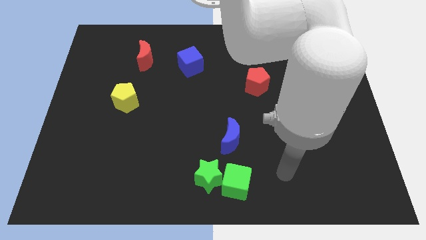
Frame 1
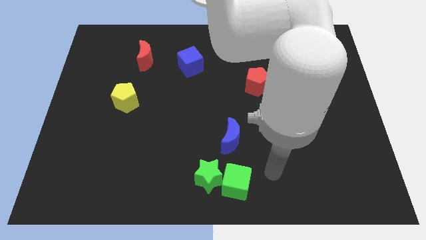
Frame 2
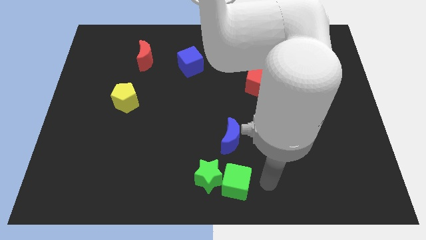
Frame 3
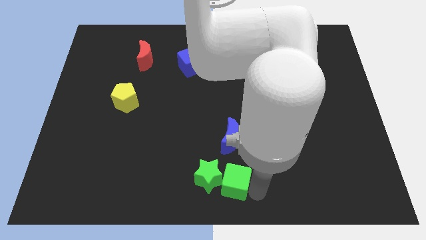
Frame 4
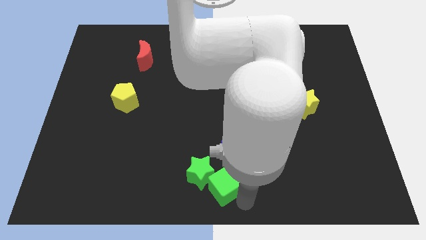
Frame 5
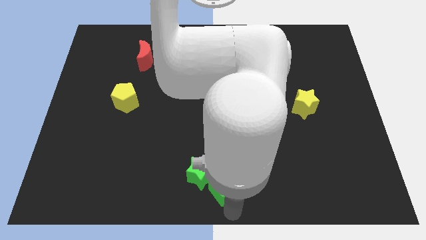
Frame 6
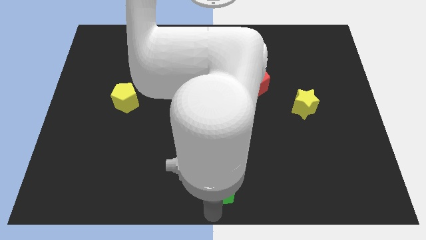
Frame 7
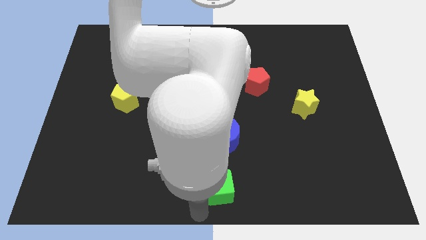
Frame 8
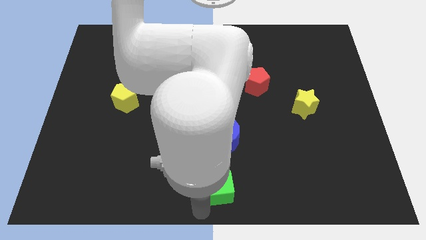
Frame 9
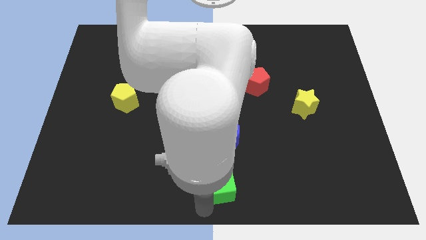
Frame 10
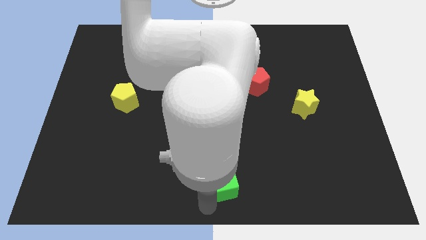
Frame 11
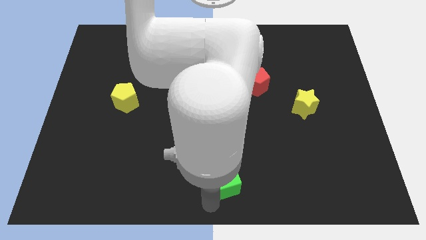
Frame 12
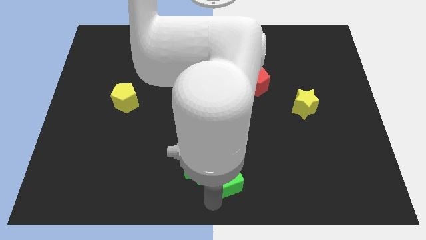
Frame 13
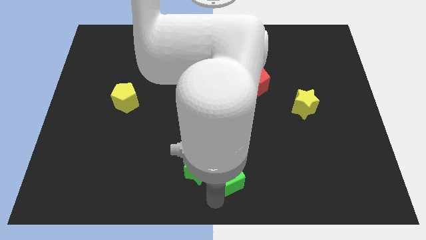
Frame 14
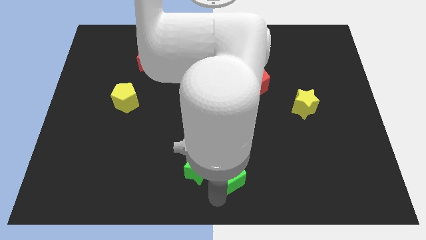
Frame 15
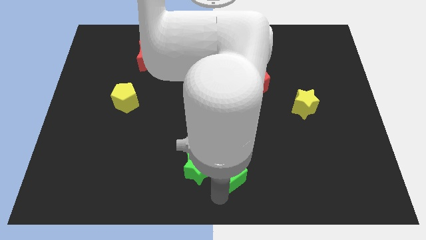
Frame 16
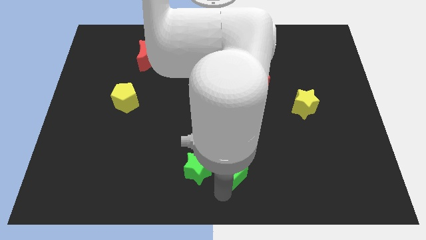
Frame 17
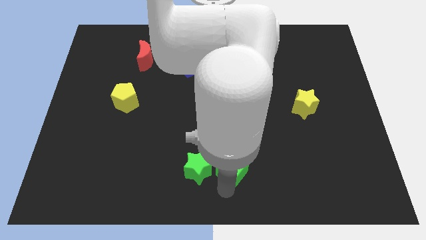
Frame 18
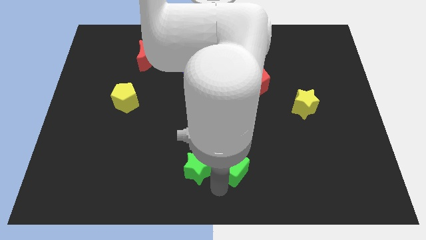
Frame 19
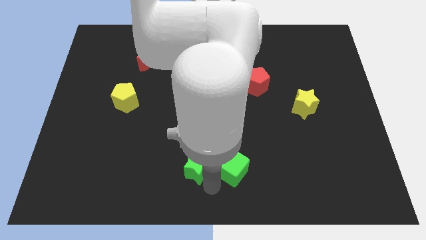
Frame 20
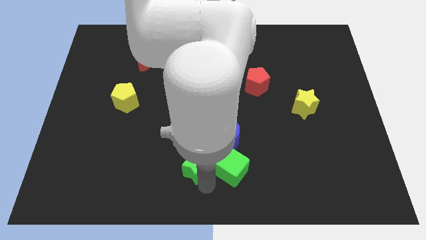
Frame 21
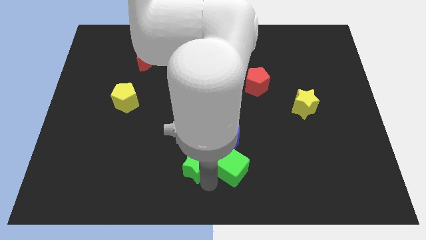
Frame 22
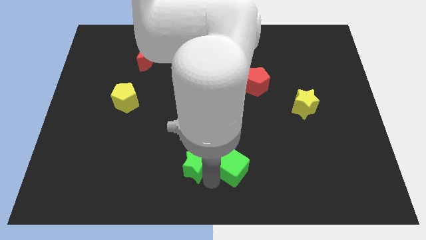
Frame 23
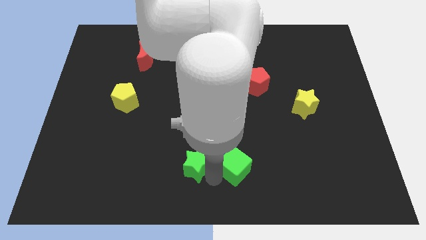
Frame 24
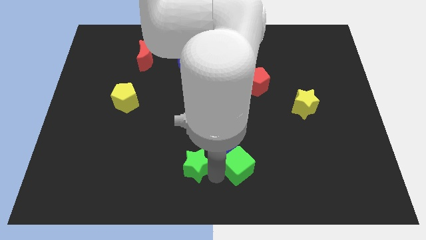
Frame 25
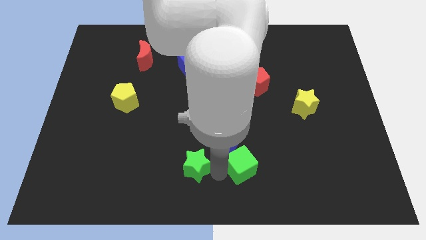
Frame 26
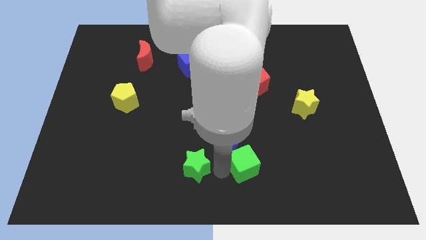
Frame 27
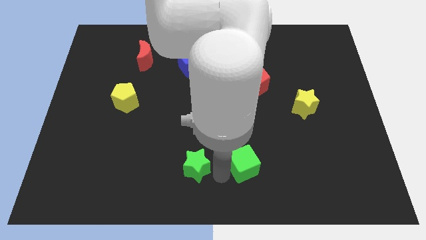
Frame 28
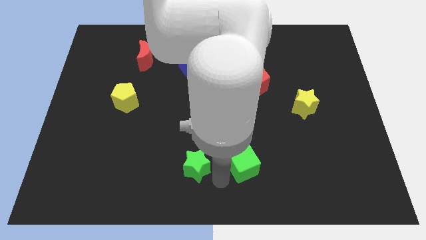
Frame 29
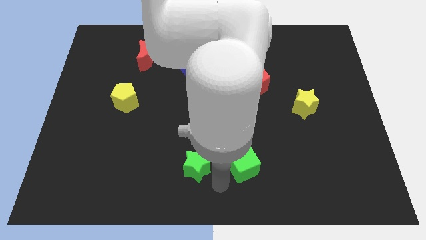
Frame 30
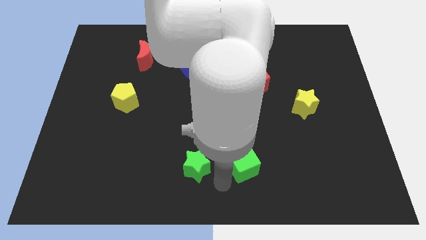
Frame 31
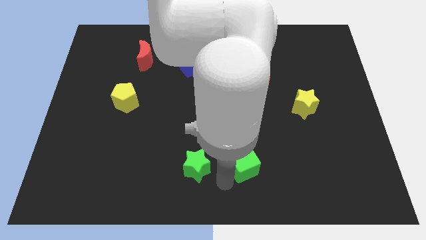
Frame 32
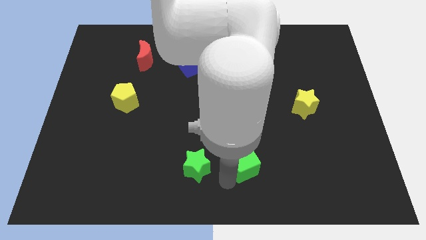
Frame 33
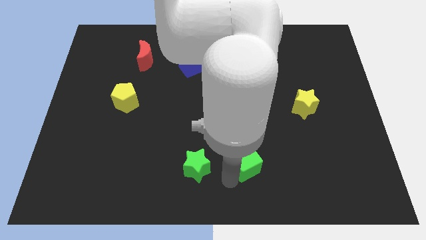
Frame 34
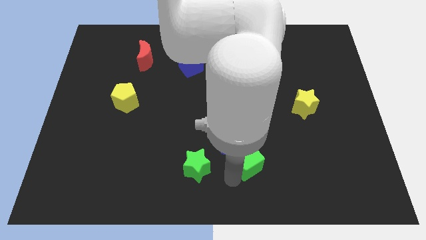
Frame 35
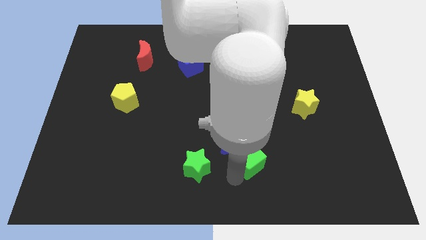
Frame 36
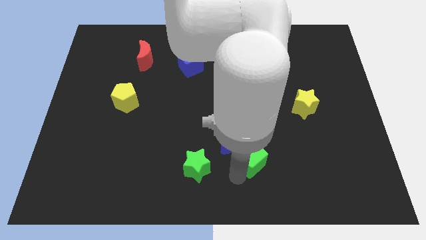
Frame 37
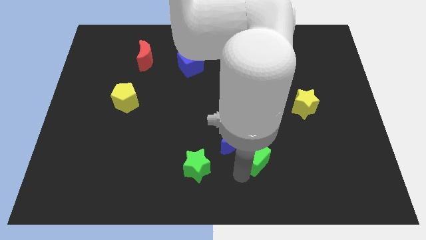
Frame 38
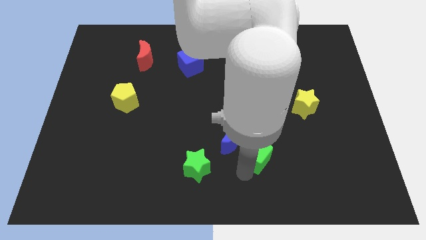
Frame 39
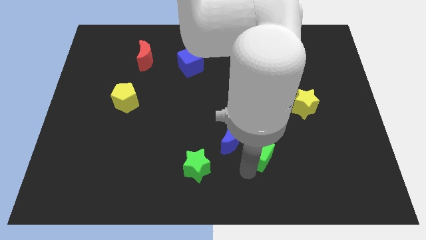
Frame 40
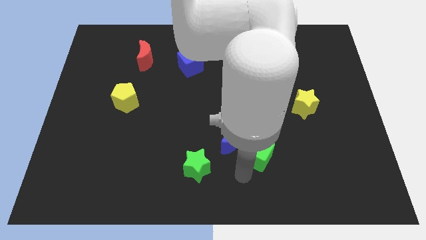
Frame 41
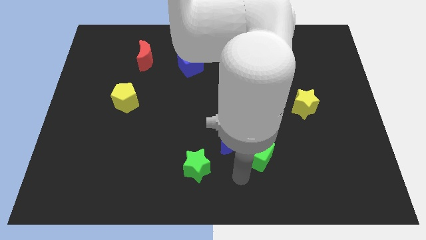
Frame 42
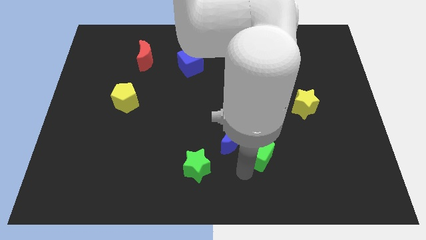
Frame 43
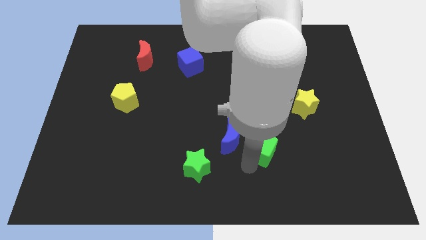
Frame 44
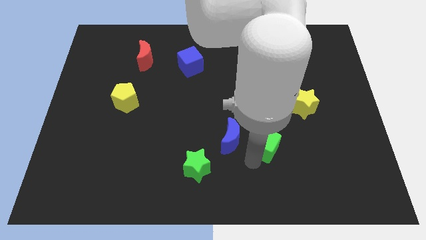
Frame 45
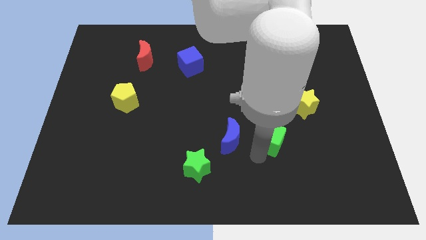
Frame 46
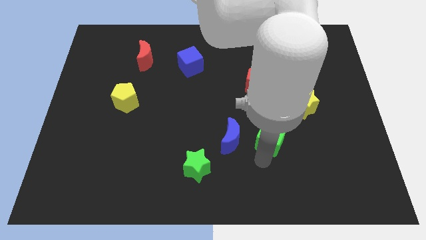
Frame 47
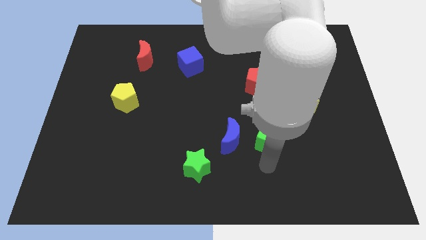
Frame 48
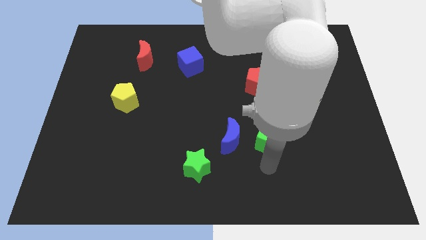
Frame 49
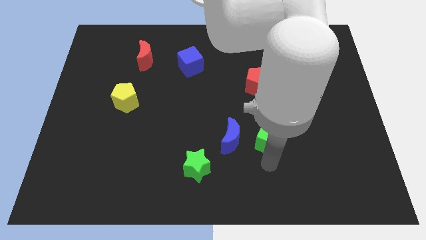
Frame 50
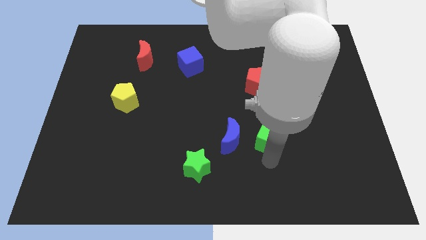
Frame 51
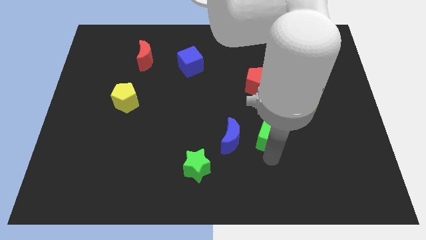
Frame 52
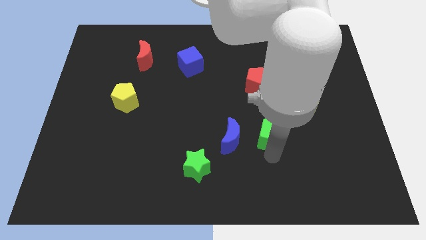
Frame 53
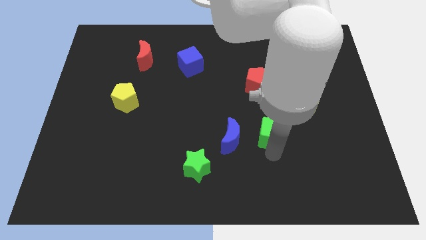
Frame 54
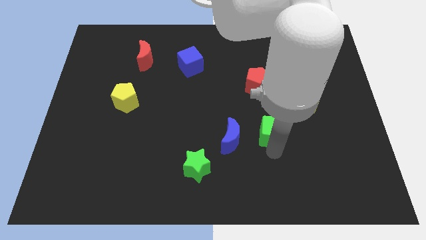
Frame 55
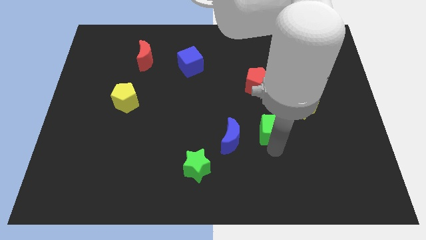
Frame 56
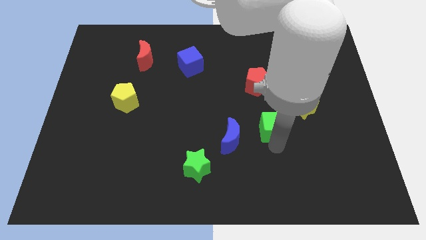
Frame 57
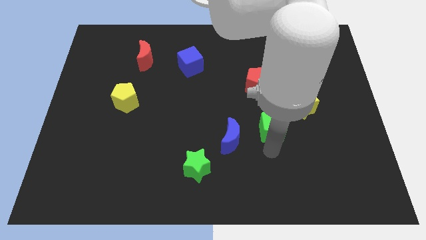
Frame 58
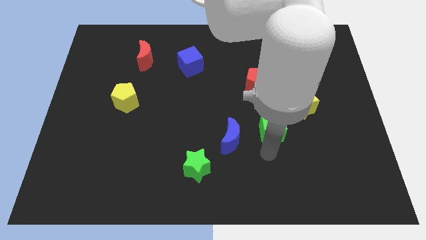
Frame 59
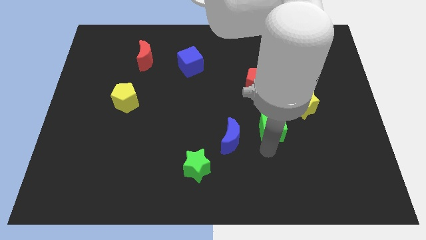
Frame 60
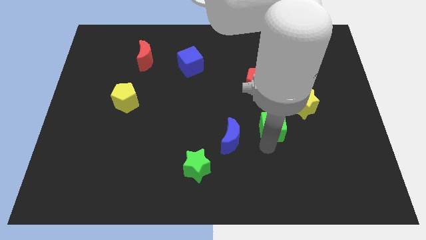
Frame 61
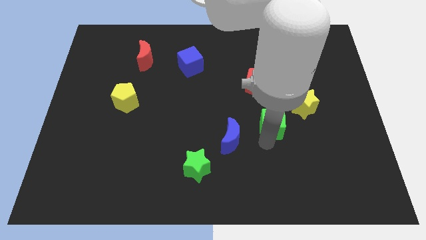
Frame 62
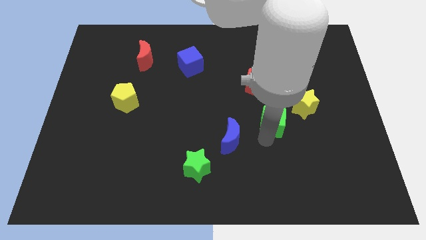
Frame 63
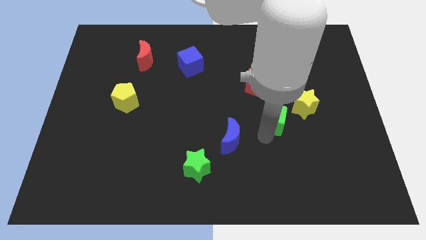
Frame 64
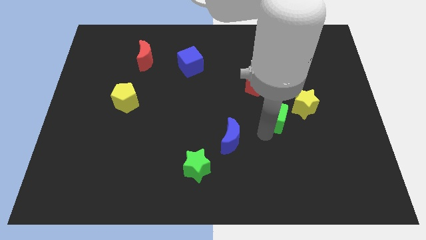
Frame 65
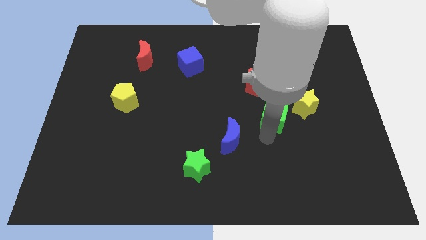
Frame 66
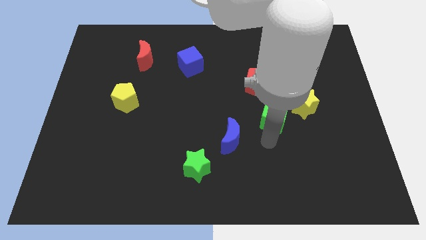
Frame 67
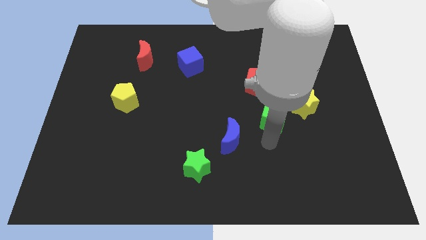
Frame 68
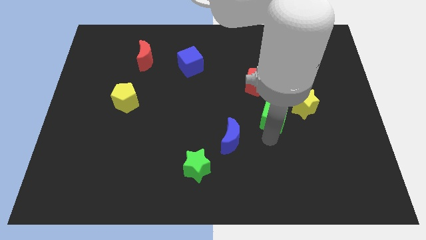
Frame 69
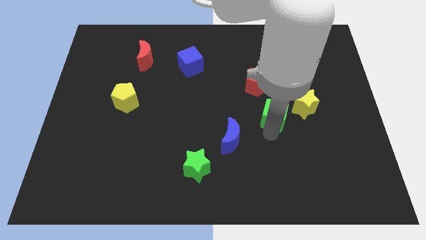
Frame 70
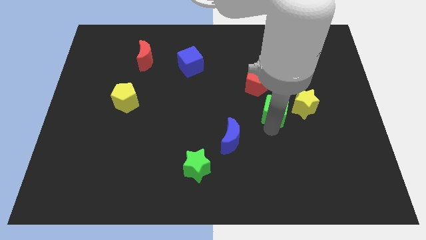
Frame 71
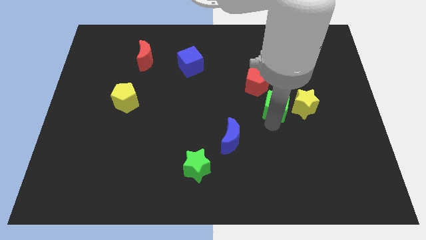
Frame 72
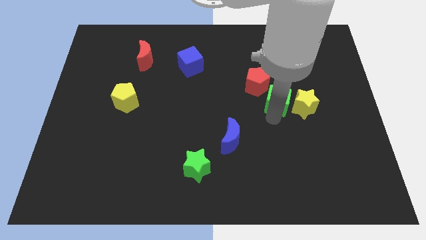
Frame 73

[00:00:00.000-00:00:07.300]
slide the green cube diagonally up and to the left of the yellow star

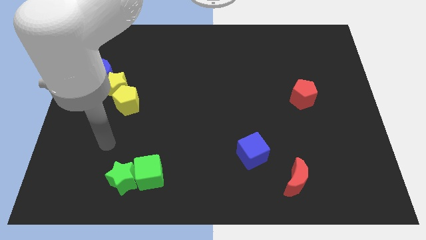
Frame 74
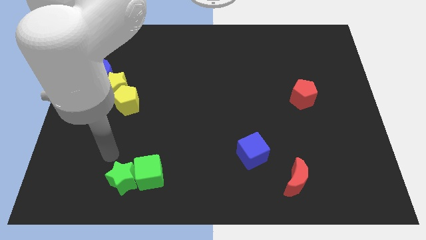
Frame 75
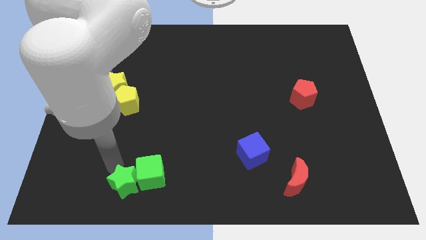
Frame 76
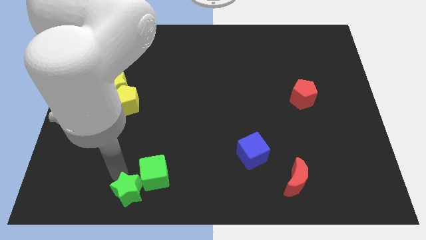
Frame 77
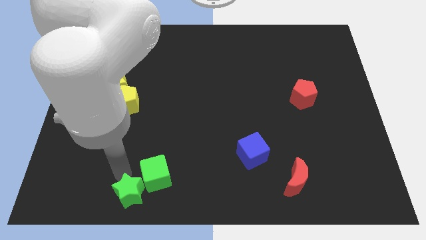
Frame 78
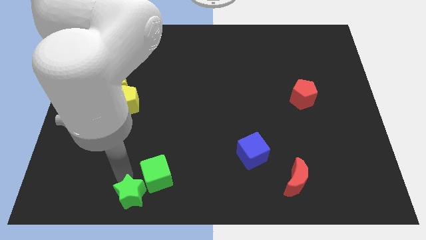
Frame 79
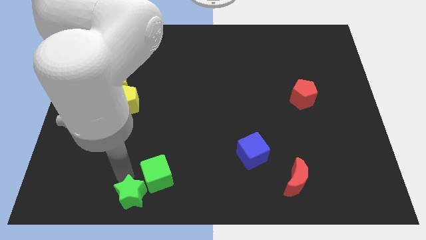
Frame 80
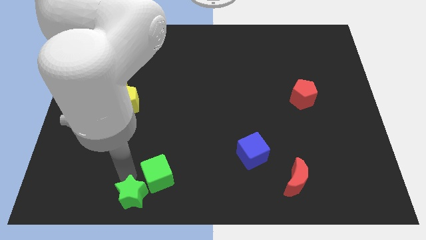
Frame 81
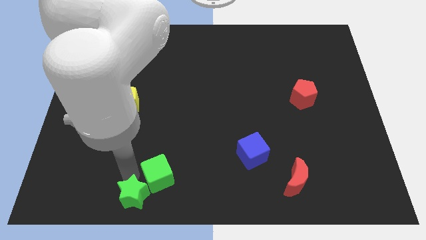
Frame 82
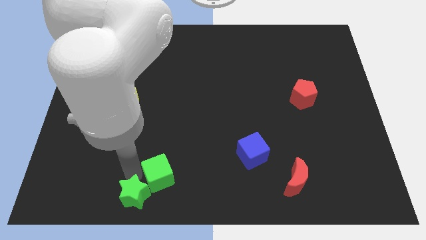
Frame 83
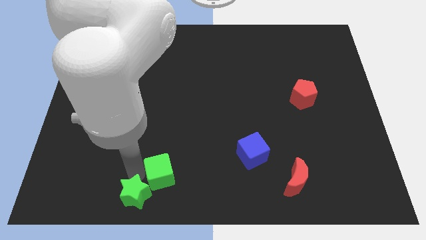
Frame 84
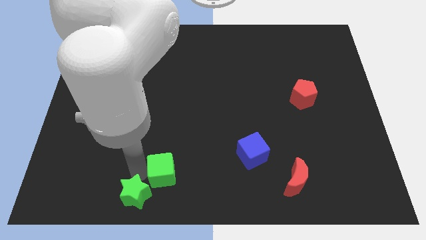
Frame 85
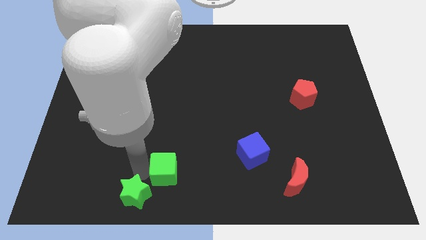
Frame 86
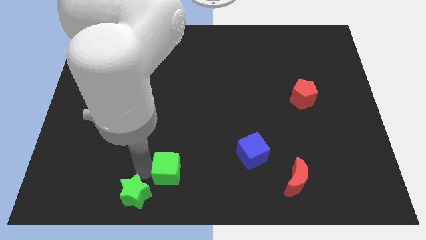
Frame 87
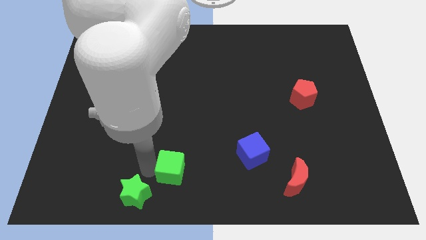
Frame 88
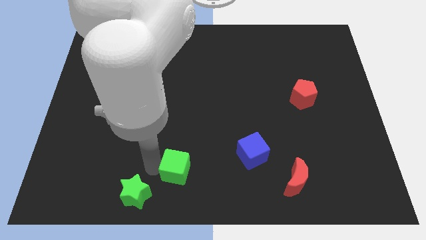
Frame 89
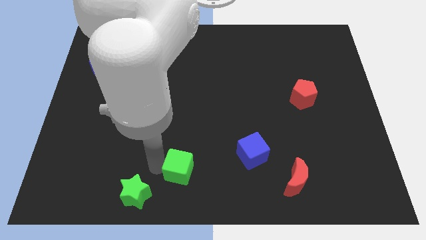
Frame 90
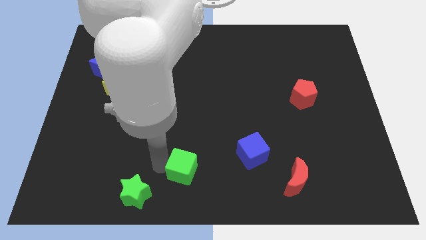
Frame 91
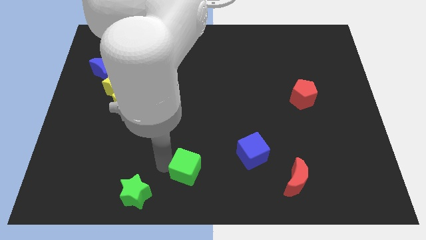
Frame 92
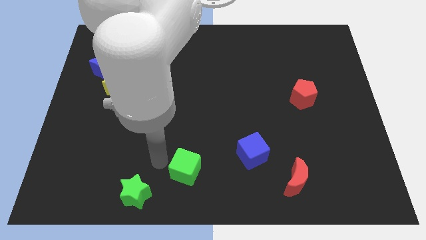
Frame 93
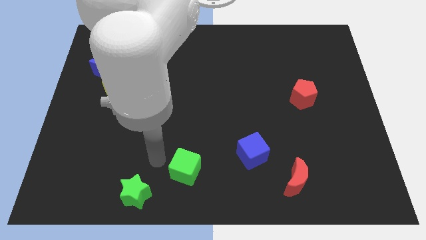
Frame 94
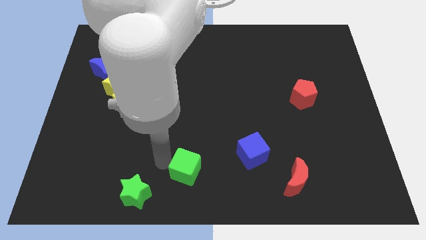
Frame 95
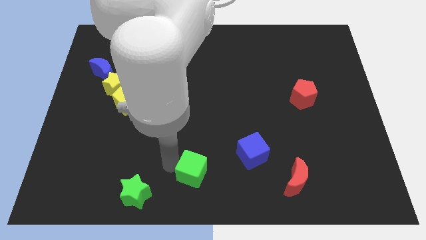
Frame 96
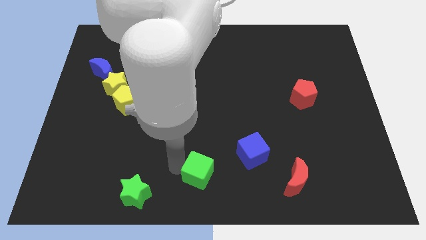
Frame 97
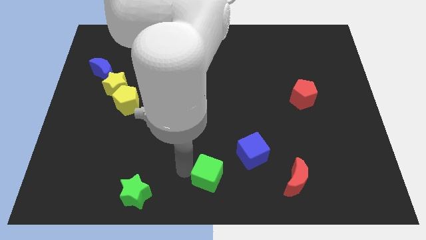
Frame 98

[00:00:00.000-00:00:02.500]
put the green cube to the bottom left side of the blue cube
